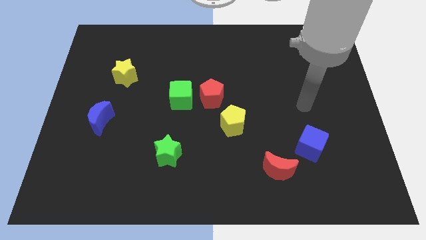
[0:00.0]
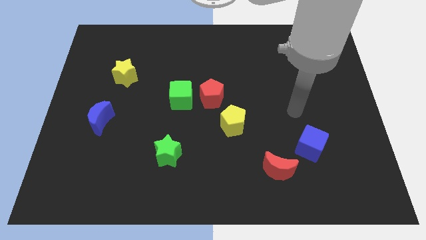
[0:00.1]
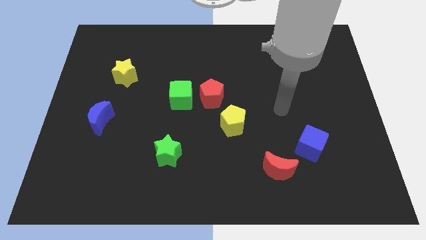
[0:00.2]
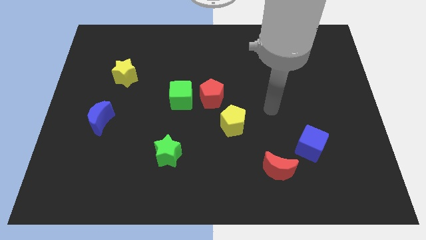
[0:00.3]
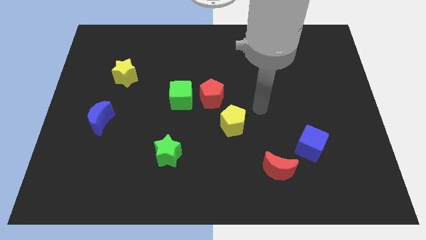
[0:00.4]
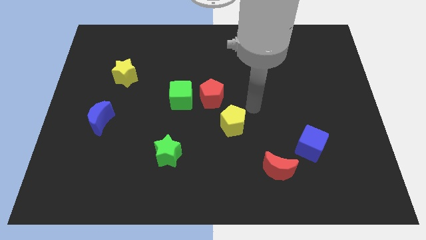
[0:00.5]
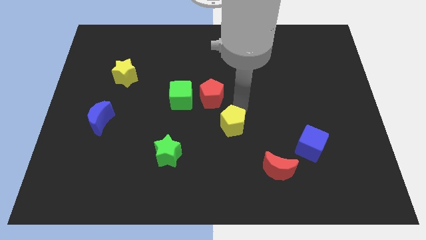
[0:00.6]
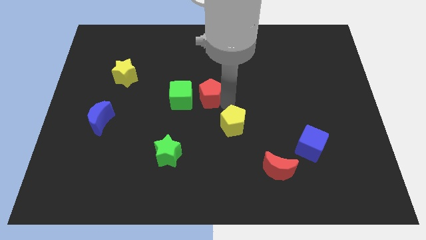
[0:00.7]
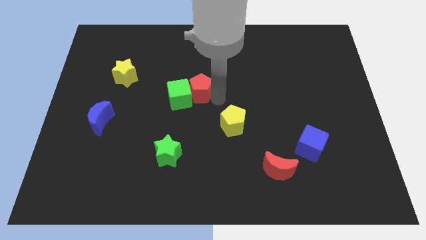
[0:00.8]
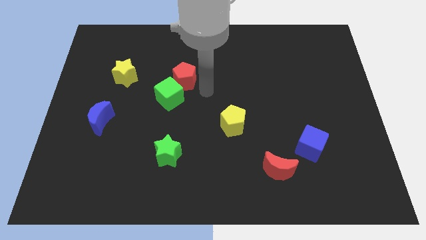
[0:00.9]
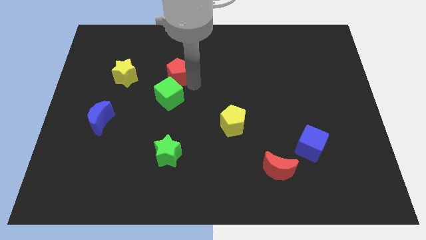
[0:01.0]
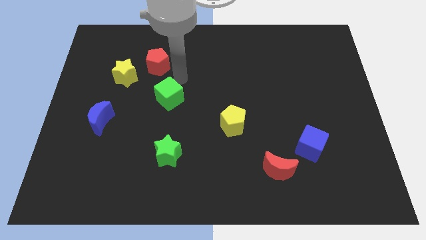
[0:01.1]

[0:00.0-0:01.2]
move the green cube away from the red pentagon

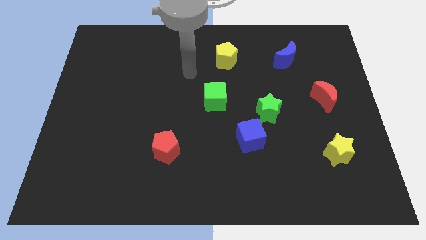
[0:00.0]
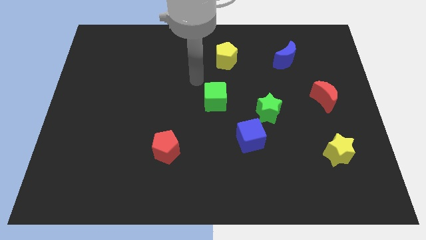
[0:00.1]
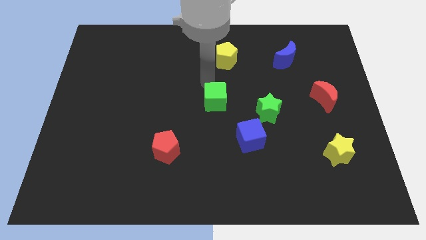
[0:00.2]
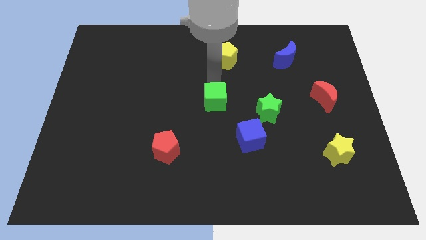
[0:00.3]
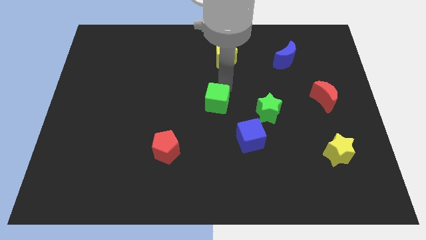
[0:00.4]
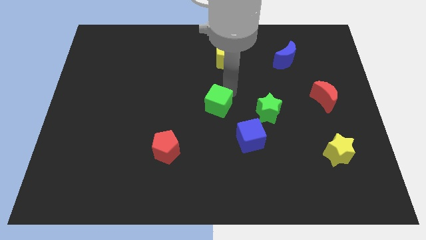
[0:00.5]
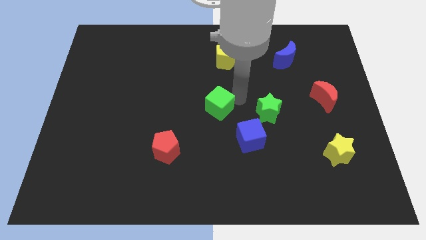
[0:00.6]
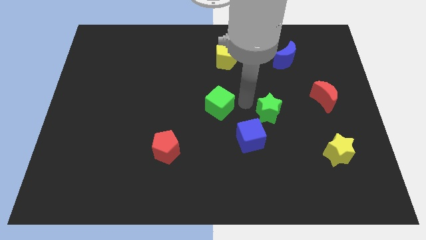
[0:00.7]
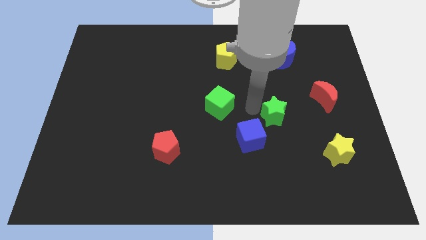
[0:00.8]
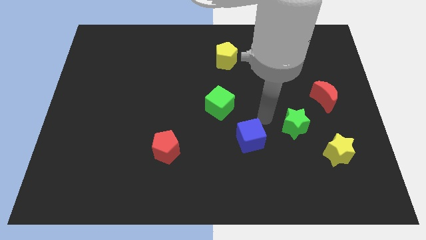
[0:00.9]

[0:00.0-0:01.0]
pull the blue cube apart from the green star

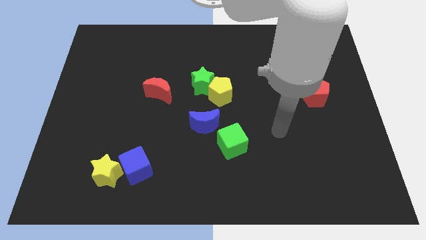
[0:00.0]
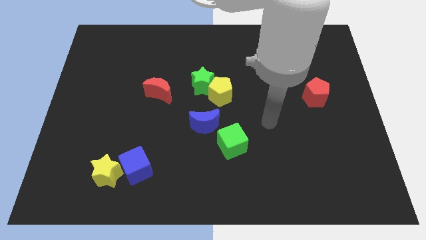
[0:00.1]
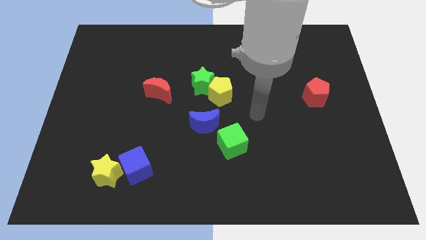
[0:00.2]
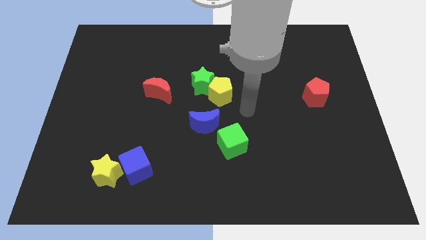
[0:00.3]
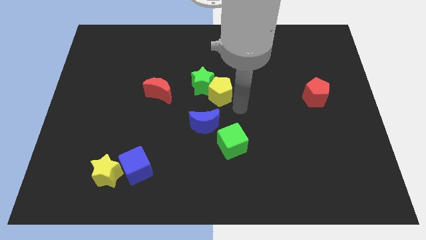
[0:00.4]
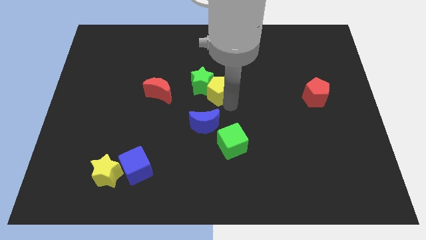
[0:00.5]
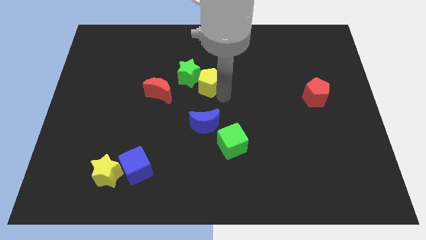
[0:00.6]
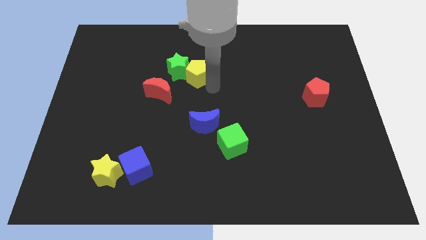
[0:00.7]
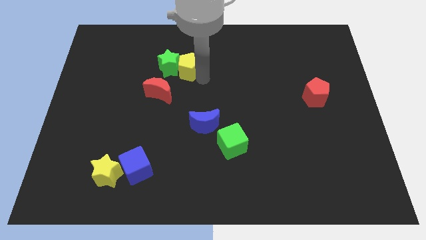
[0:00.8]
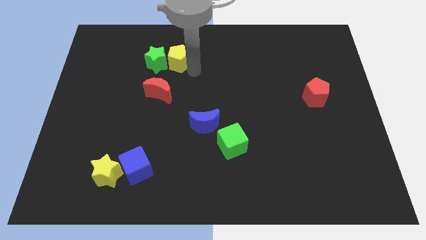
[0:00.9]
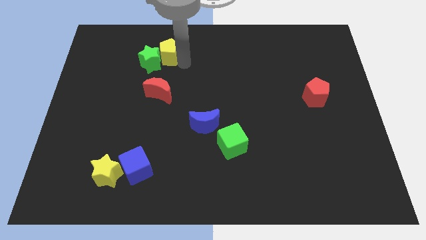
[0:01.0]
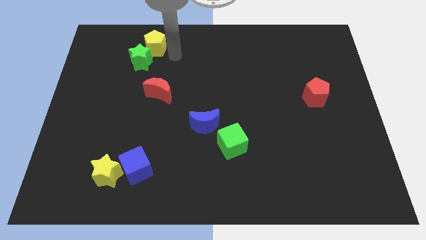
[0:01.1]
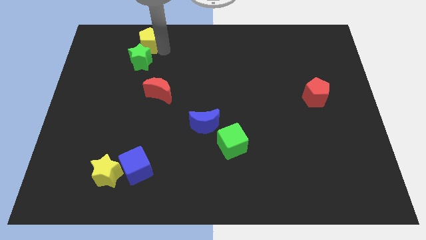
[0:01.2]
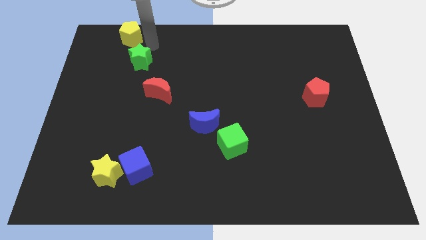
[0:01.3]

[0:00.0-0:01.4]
pull the green star apart from the yellow pentagon

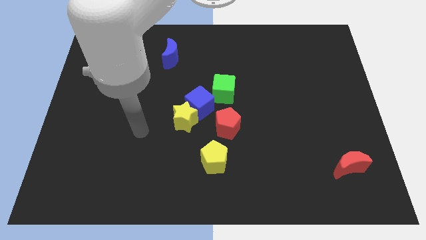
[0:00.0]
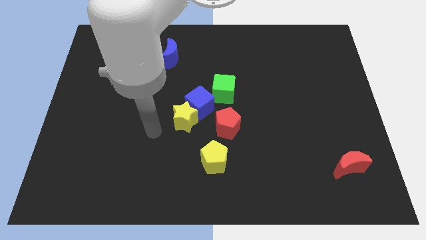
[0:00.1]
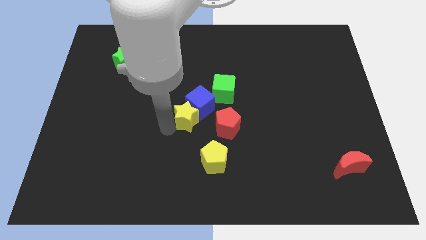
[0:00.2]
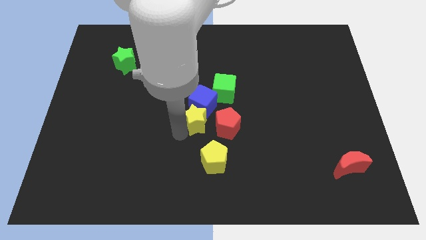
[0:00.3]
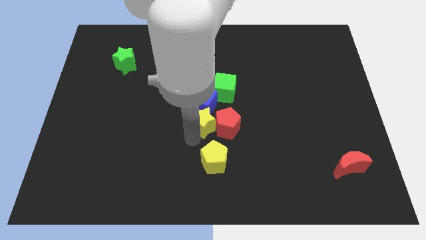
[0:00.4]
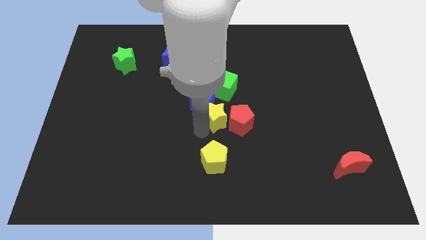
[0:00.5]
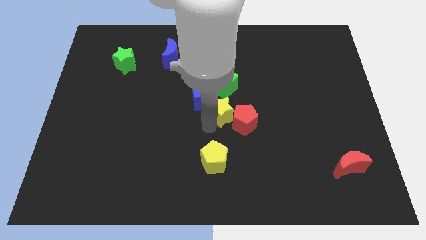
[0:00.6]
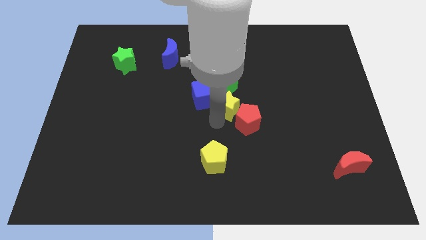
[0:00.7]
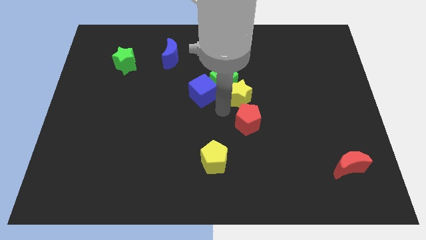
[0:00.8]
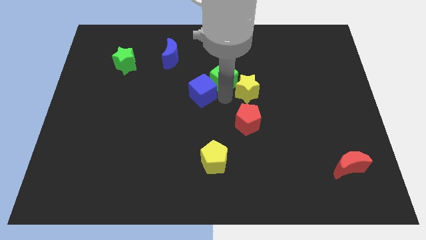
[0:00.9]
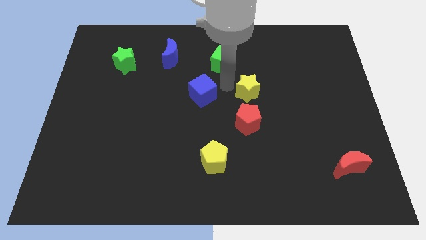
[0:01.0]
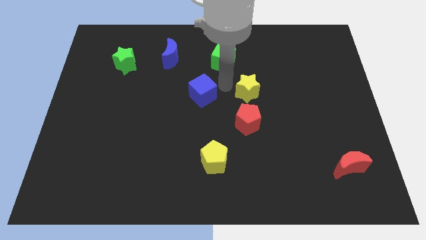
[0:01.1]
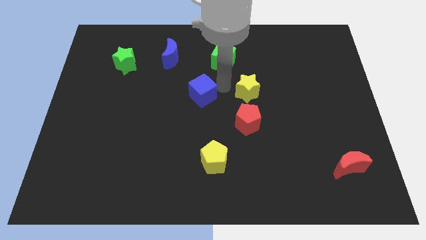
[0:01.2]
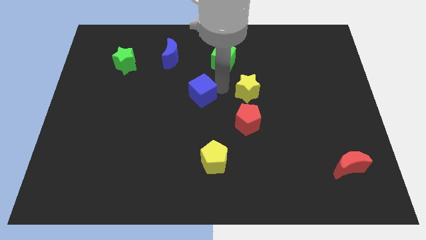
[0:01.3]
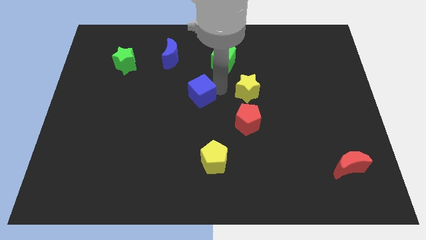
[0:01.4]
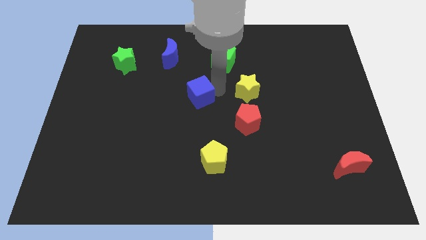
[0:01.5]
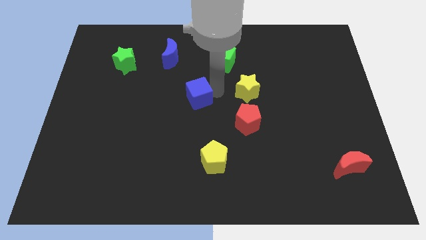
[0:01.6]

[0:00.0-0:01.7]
move the blue cube away from the yellow star, green cube, and red pentagon

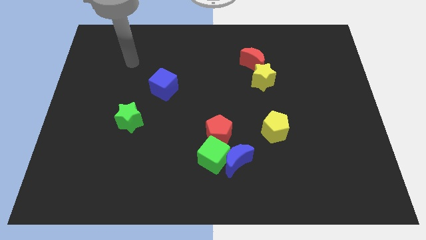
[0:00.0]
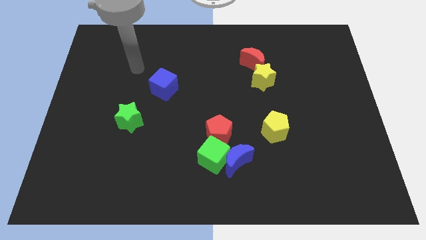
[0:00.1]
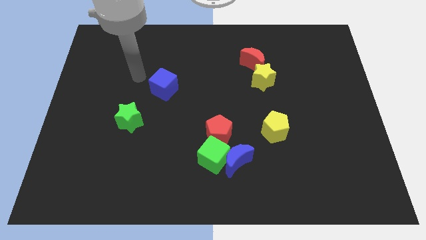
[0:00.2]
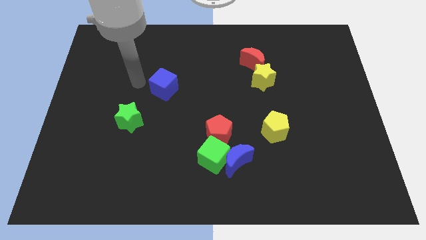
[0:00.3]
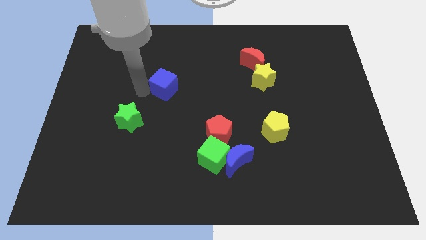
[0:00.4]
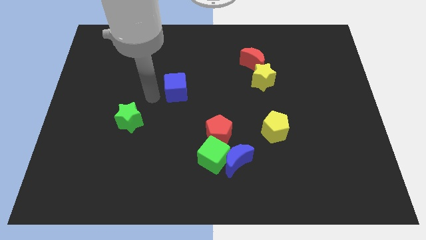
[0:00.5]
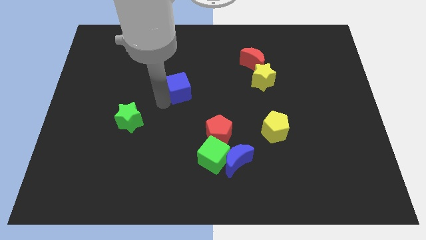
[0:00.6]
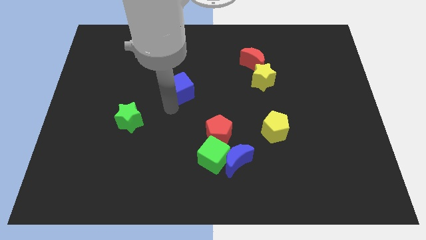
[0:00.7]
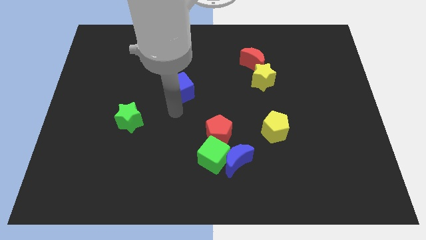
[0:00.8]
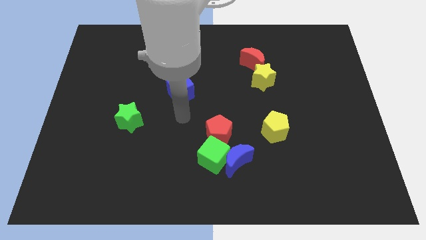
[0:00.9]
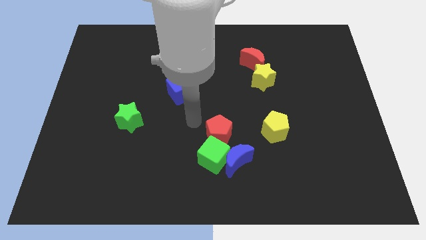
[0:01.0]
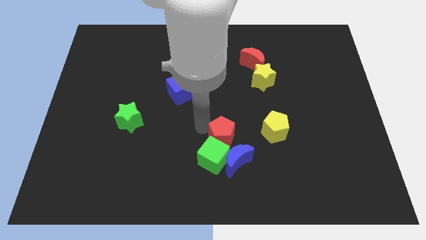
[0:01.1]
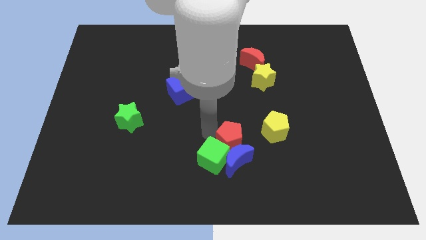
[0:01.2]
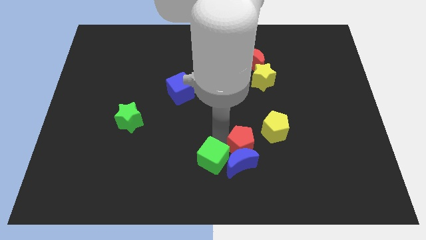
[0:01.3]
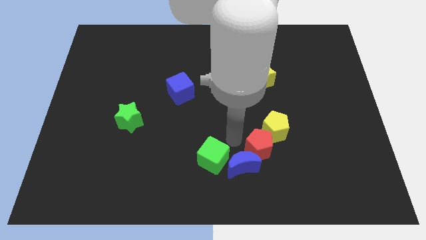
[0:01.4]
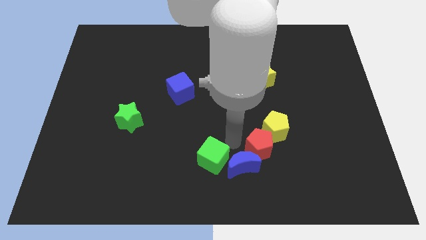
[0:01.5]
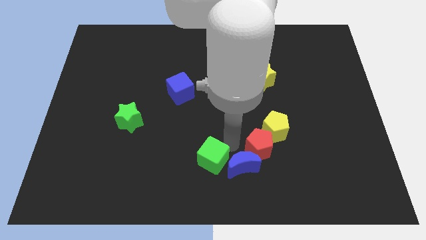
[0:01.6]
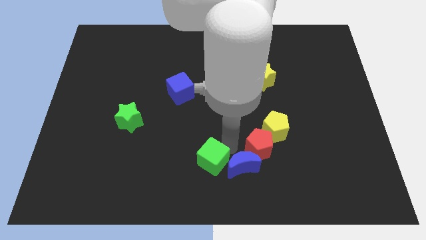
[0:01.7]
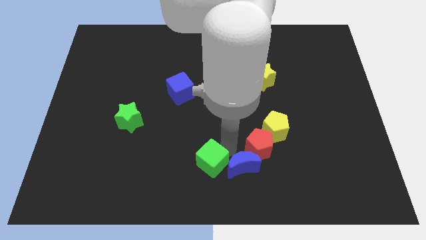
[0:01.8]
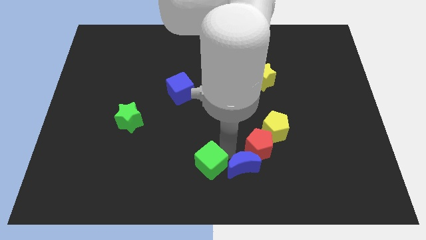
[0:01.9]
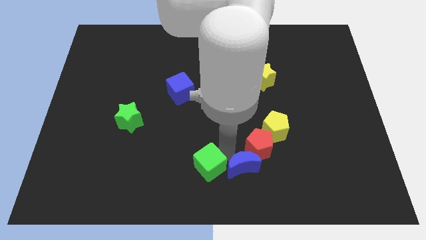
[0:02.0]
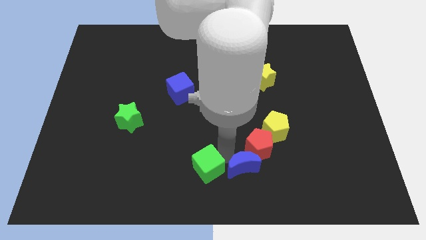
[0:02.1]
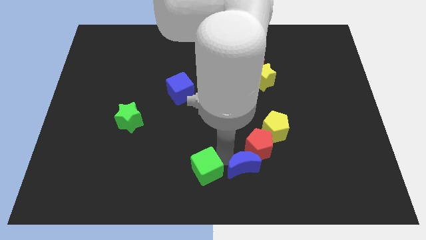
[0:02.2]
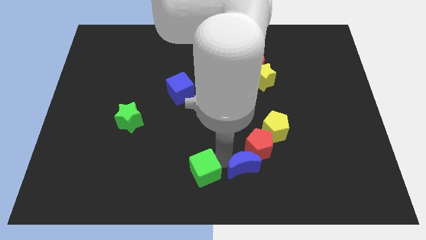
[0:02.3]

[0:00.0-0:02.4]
move the green cube away from the blue moon and red pentagon

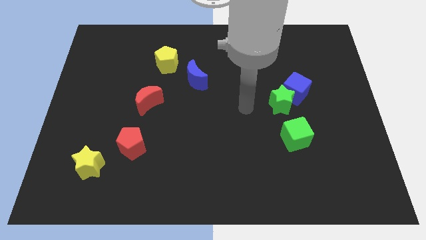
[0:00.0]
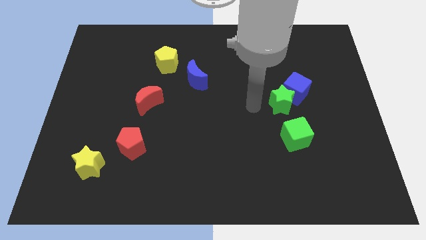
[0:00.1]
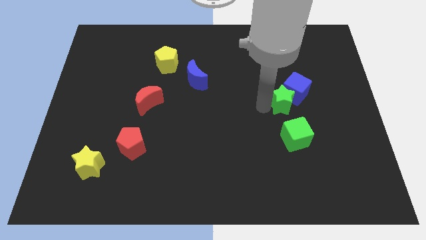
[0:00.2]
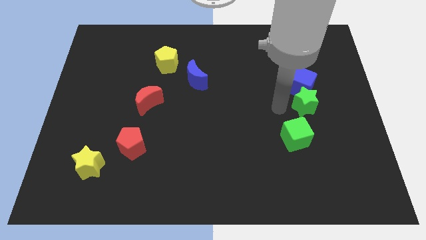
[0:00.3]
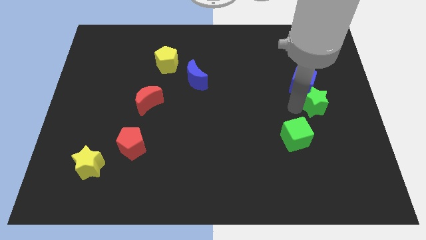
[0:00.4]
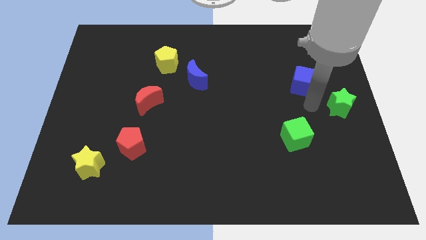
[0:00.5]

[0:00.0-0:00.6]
move the blue cube away from the green star

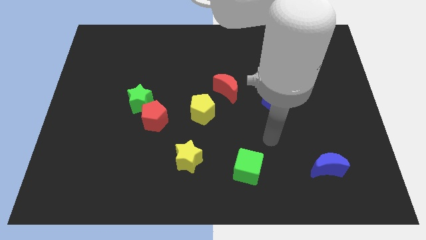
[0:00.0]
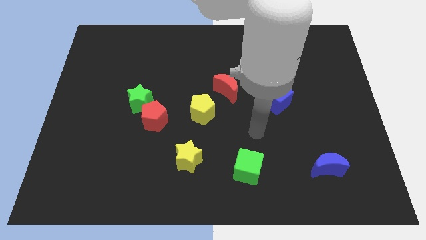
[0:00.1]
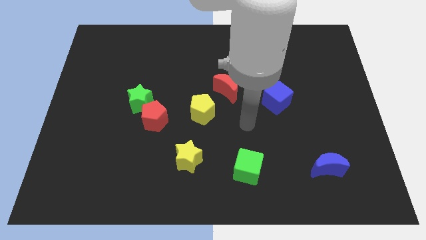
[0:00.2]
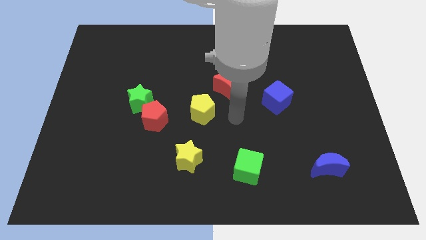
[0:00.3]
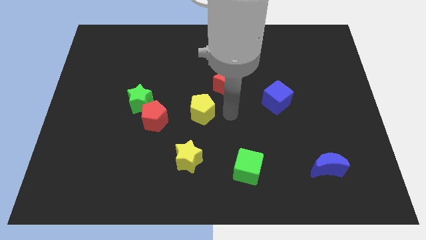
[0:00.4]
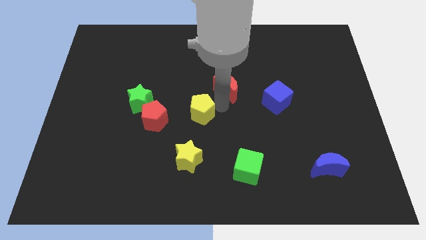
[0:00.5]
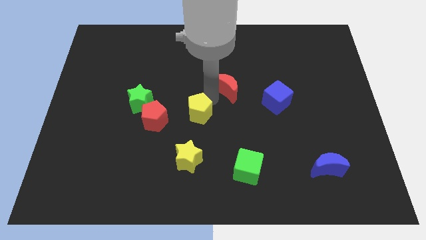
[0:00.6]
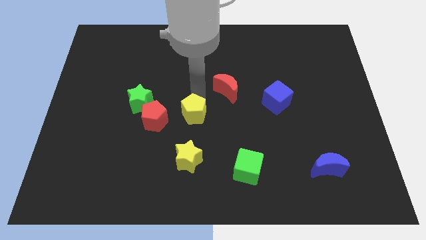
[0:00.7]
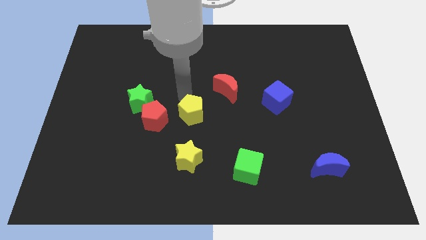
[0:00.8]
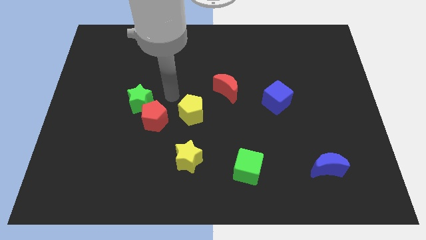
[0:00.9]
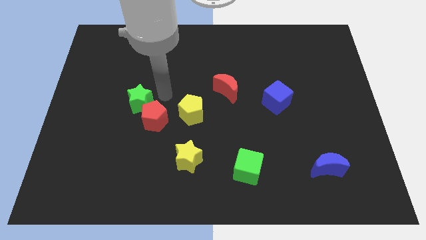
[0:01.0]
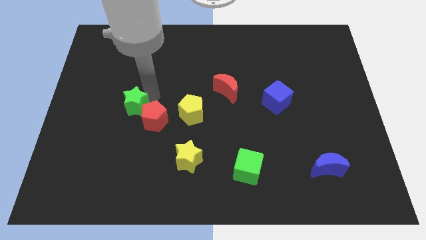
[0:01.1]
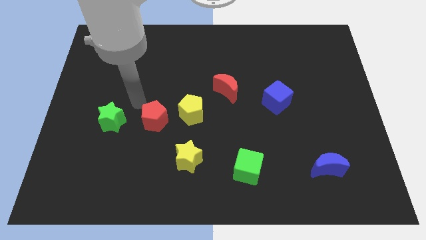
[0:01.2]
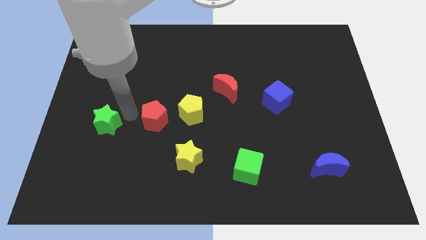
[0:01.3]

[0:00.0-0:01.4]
pull the red pentagon apart from the green star
